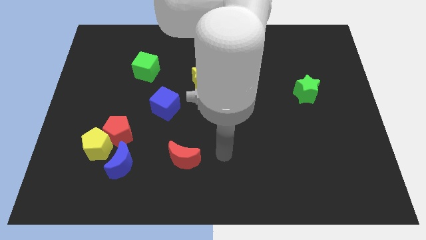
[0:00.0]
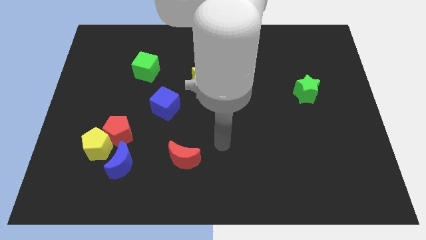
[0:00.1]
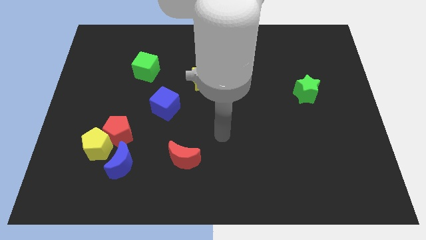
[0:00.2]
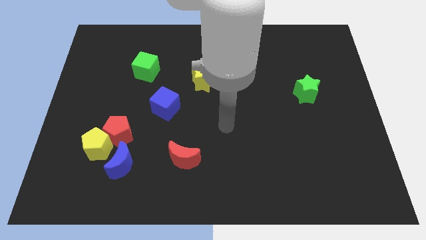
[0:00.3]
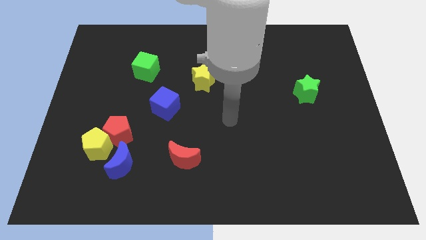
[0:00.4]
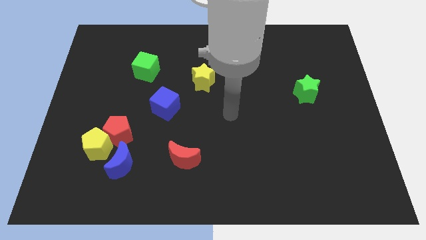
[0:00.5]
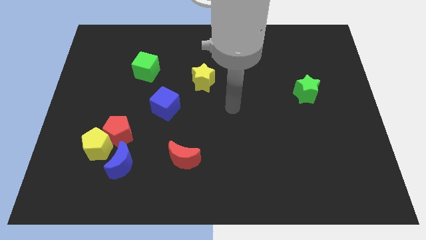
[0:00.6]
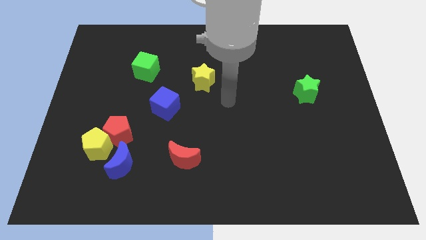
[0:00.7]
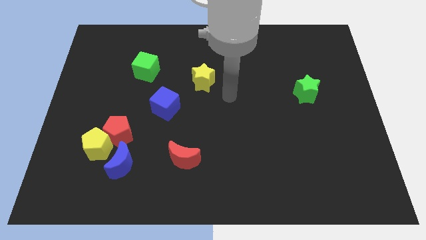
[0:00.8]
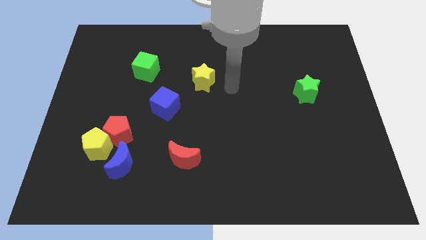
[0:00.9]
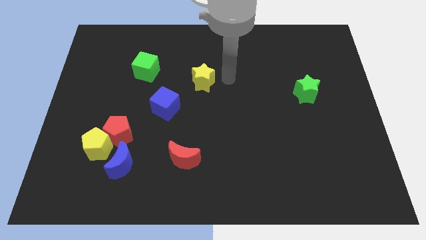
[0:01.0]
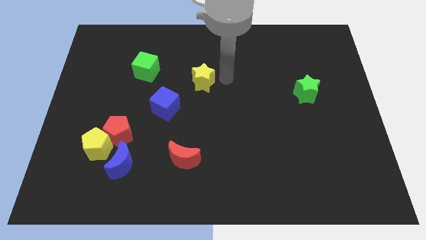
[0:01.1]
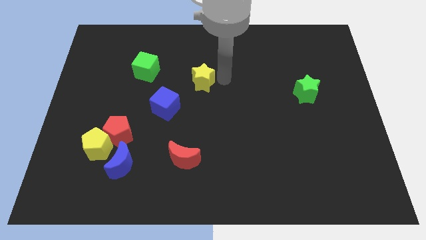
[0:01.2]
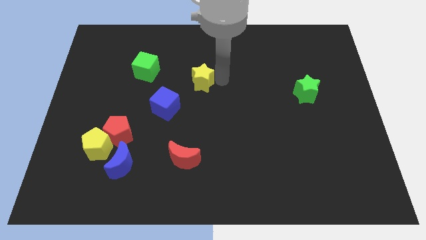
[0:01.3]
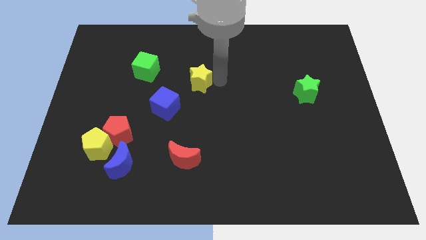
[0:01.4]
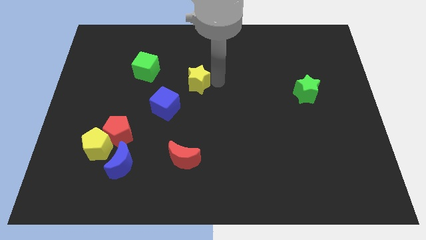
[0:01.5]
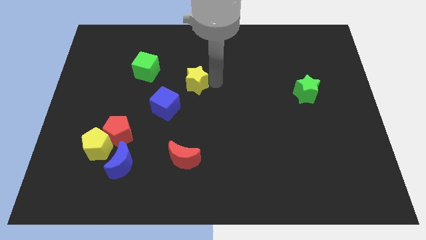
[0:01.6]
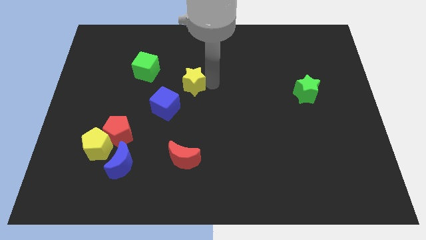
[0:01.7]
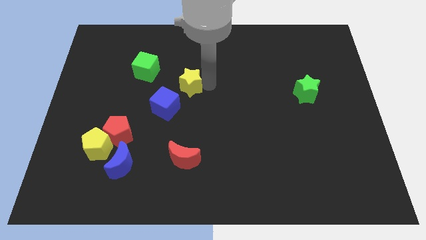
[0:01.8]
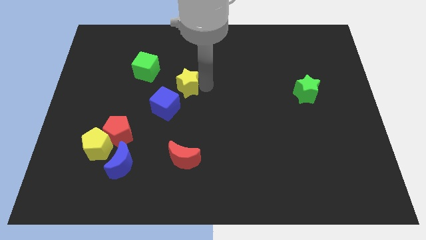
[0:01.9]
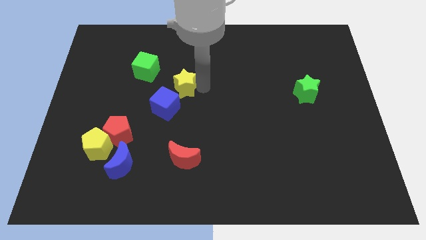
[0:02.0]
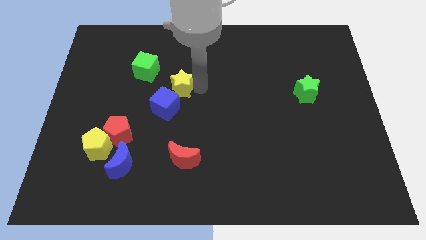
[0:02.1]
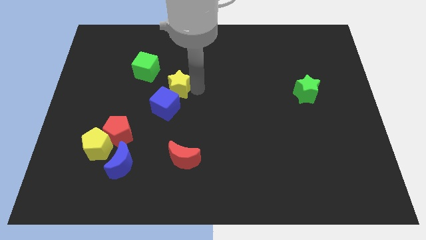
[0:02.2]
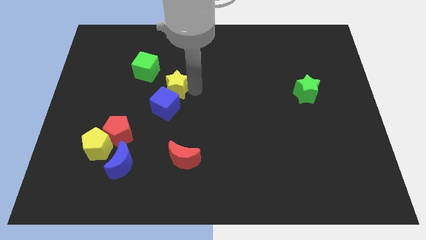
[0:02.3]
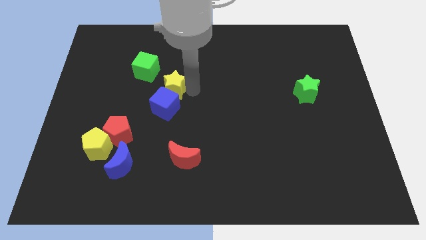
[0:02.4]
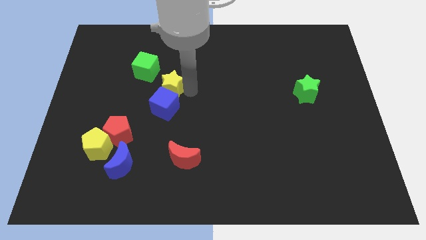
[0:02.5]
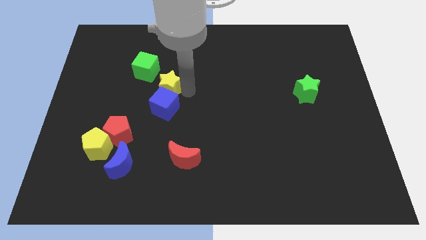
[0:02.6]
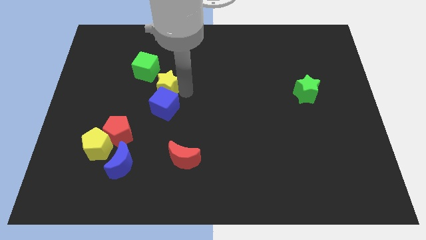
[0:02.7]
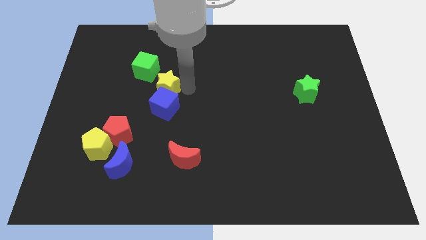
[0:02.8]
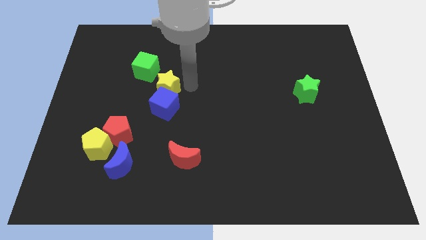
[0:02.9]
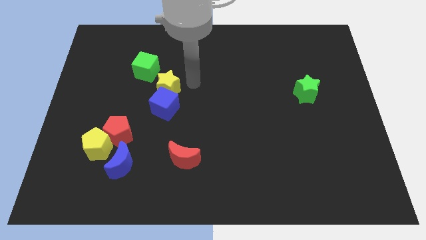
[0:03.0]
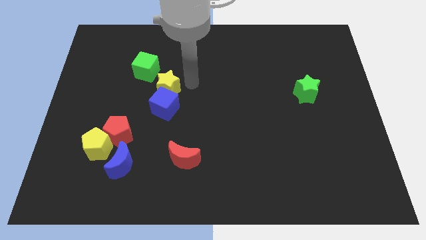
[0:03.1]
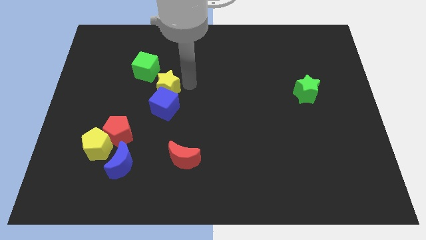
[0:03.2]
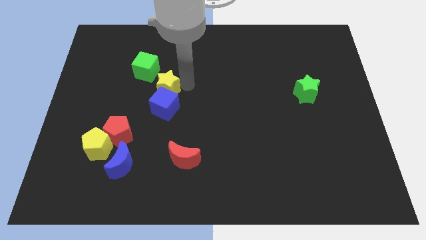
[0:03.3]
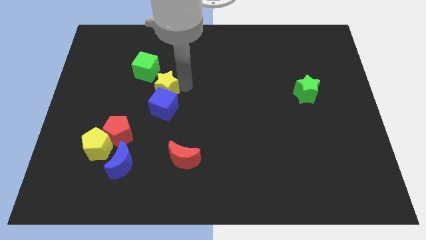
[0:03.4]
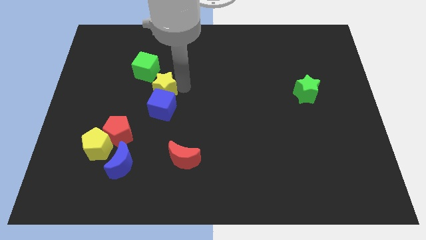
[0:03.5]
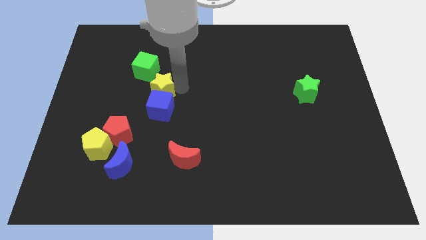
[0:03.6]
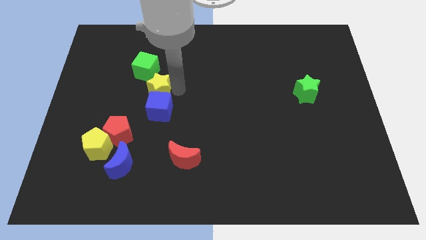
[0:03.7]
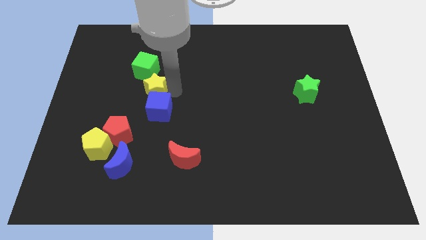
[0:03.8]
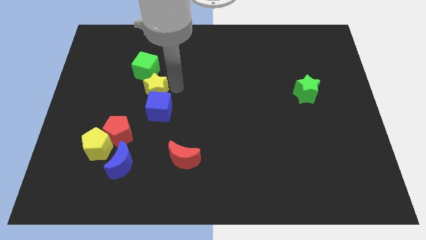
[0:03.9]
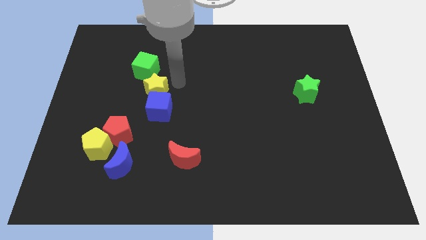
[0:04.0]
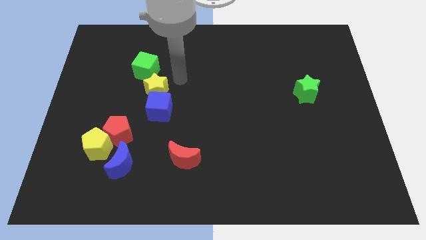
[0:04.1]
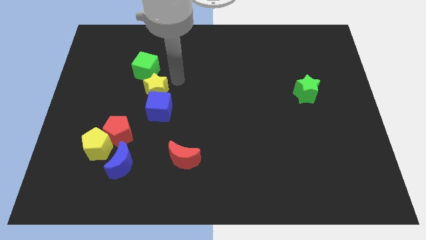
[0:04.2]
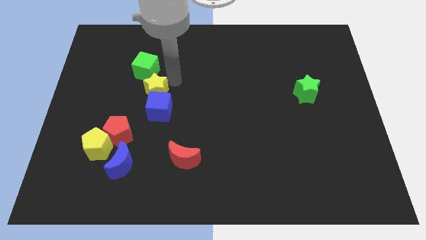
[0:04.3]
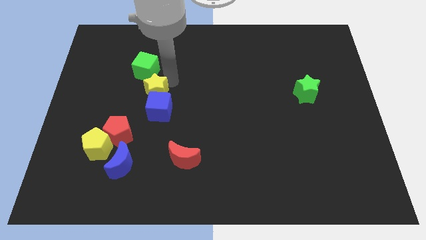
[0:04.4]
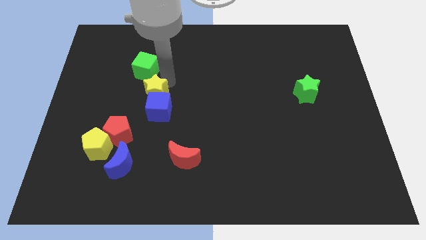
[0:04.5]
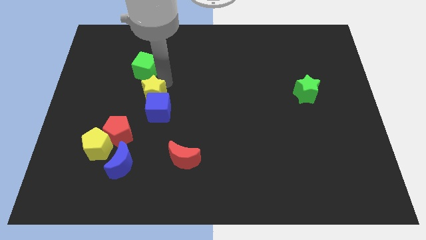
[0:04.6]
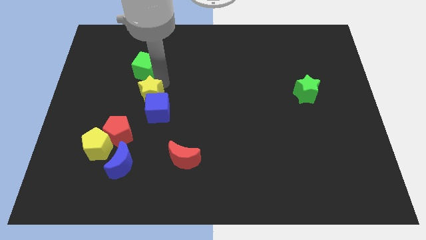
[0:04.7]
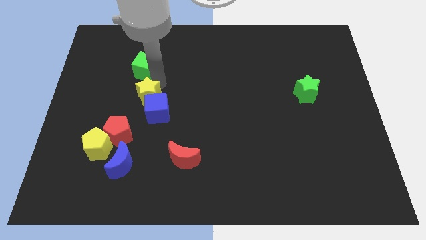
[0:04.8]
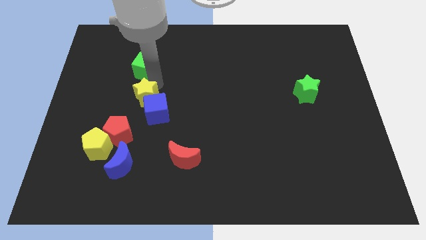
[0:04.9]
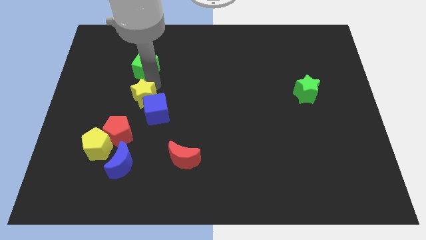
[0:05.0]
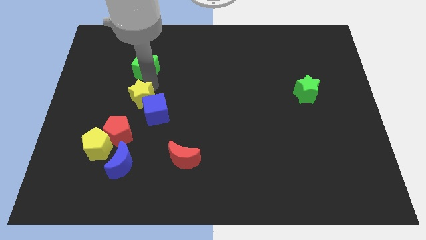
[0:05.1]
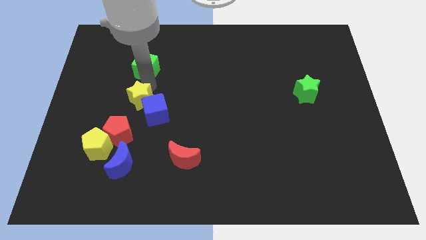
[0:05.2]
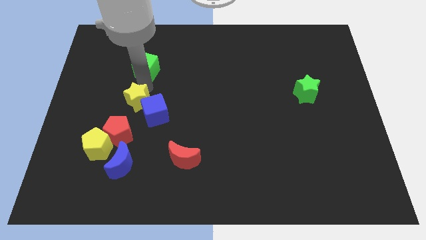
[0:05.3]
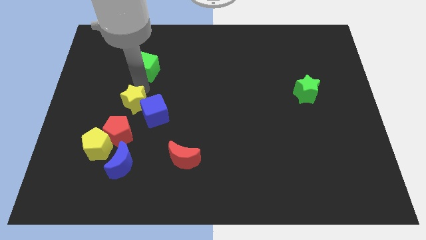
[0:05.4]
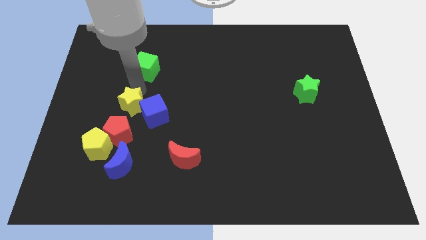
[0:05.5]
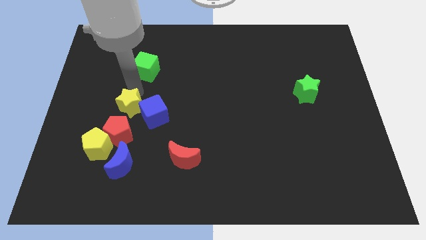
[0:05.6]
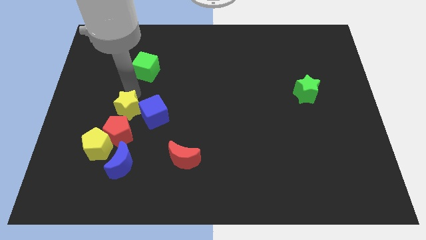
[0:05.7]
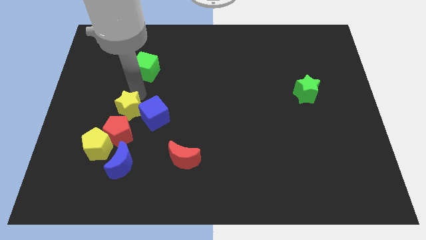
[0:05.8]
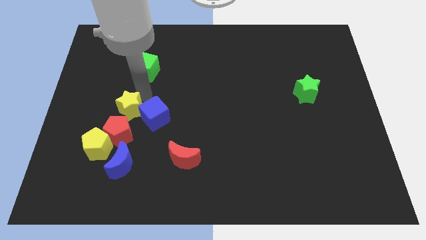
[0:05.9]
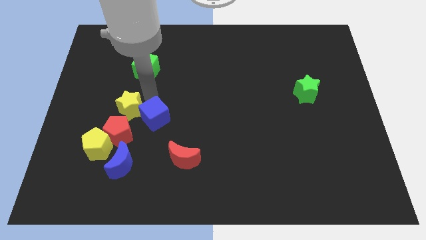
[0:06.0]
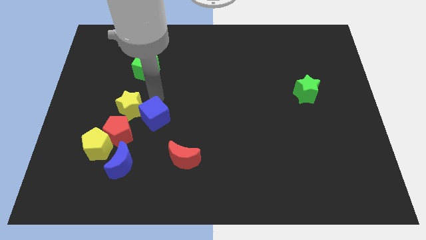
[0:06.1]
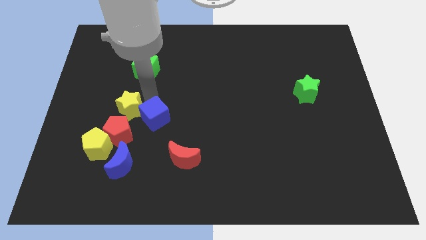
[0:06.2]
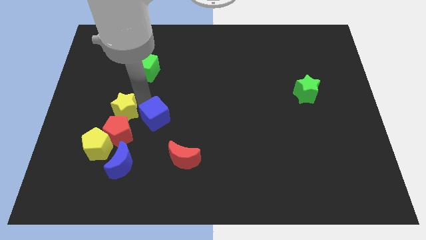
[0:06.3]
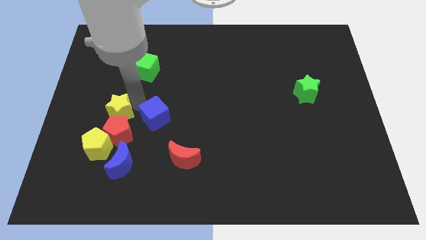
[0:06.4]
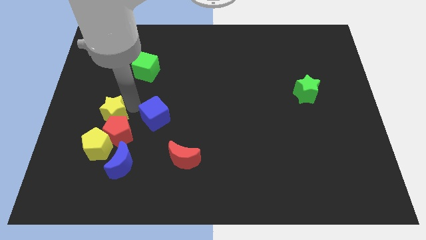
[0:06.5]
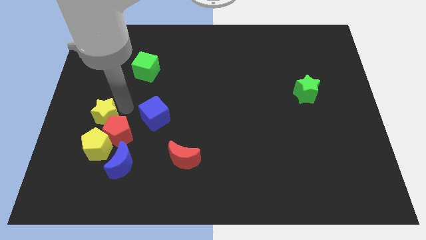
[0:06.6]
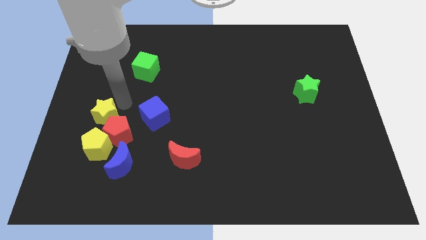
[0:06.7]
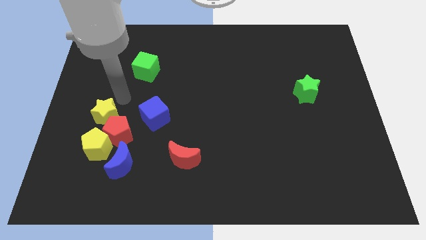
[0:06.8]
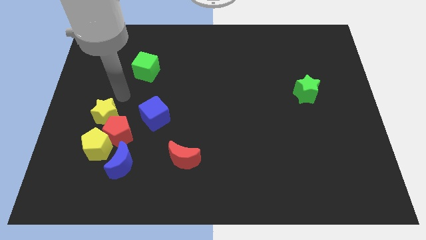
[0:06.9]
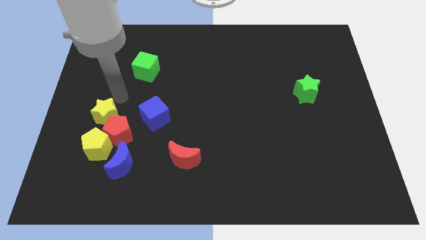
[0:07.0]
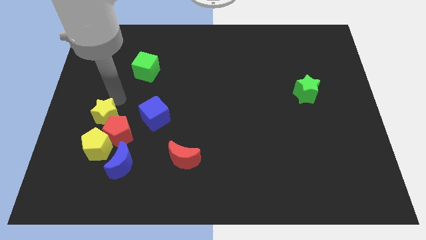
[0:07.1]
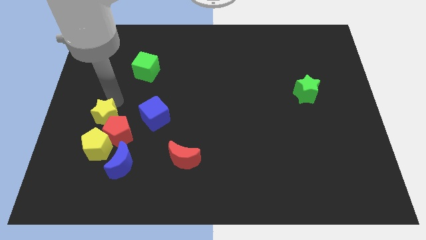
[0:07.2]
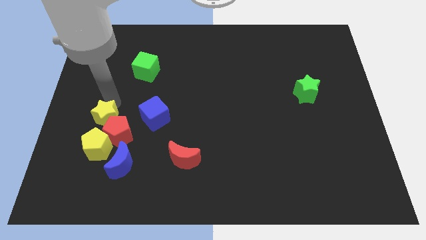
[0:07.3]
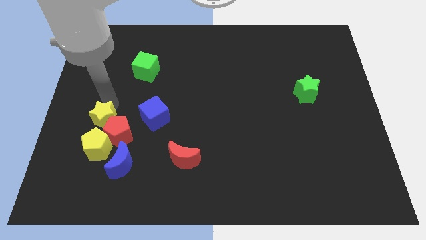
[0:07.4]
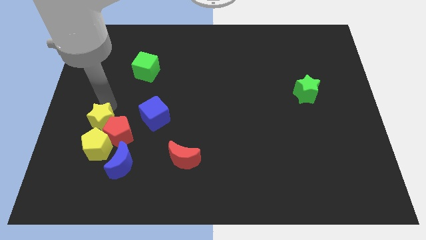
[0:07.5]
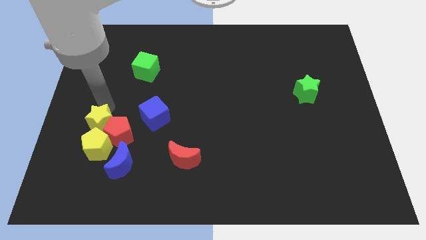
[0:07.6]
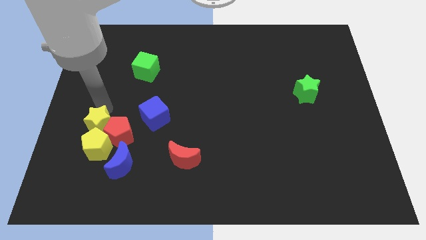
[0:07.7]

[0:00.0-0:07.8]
move the yellow star diagonally up and to the left of the blue moon
